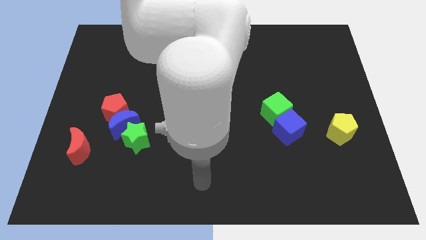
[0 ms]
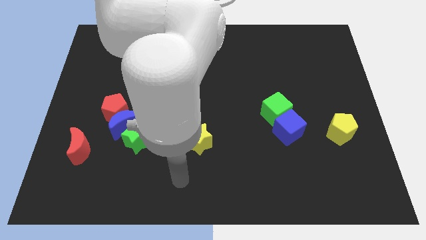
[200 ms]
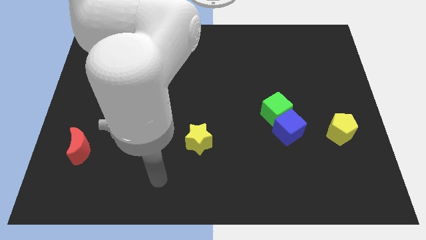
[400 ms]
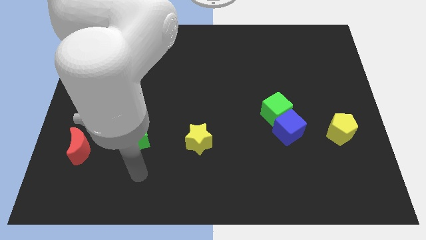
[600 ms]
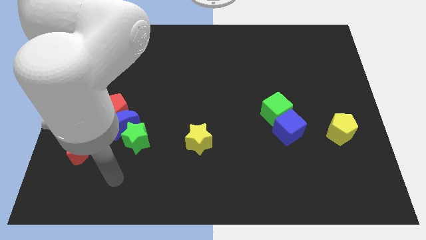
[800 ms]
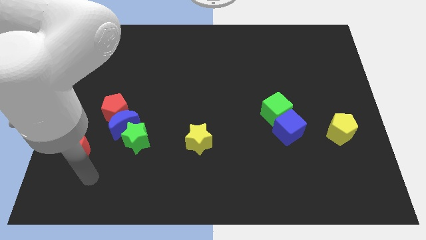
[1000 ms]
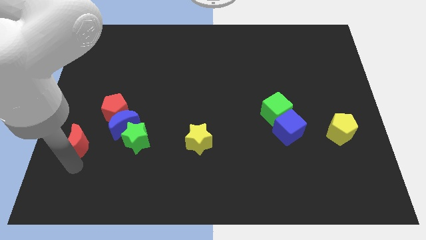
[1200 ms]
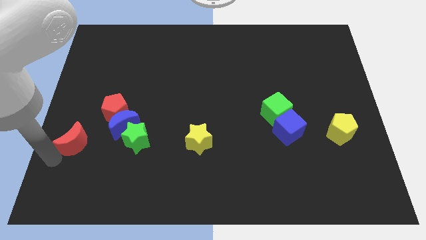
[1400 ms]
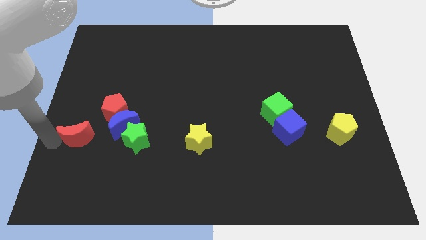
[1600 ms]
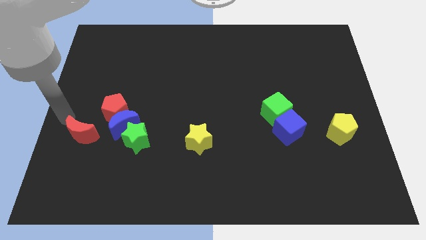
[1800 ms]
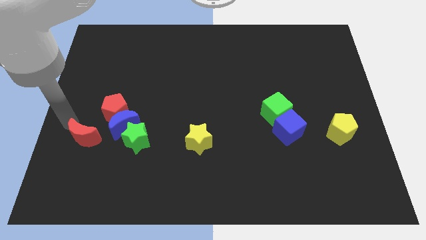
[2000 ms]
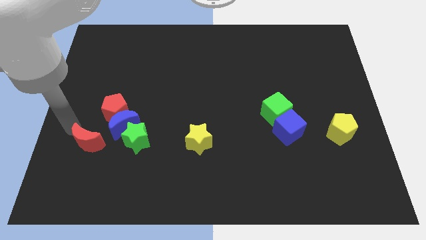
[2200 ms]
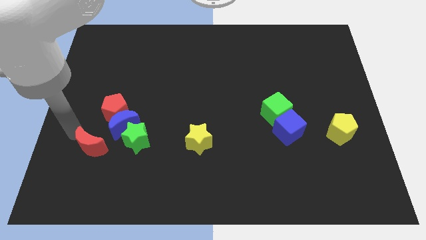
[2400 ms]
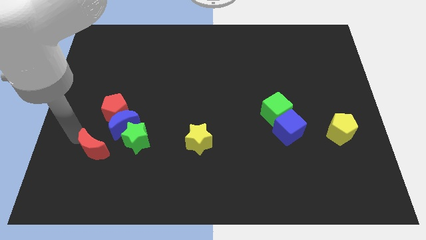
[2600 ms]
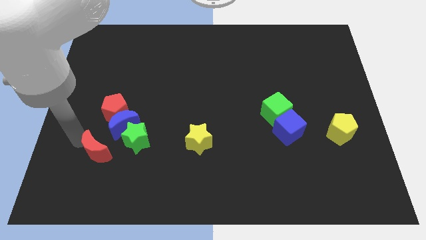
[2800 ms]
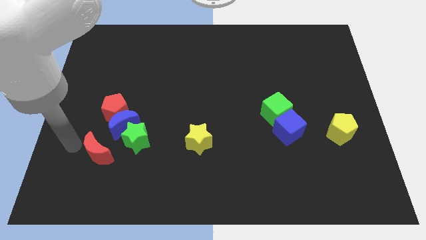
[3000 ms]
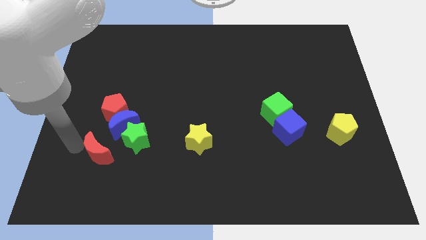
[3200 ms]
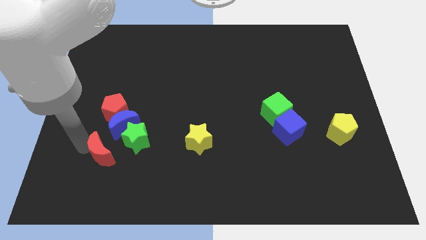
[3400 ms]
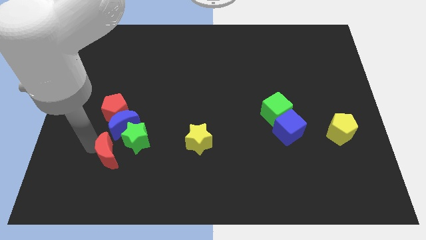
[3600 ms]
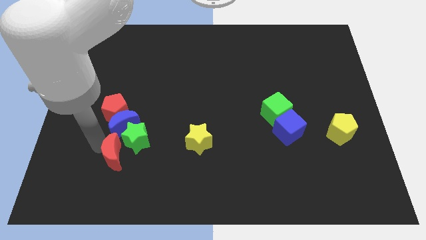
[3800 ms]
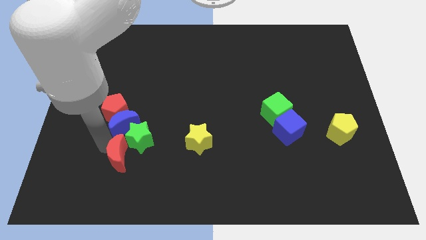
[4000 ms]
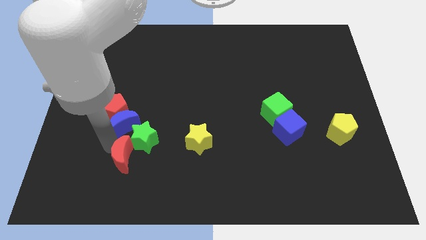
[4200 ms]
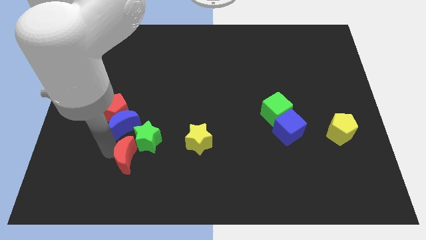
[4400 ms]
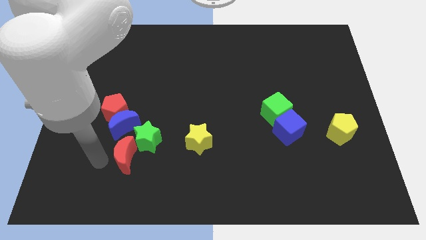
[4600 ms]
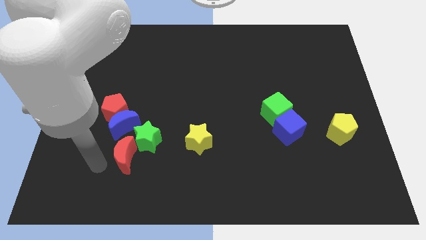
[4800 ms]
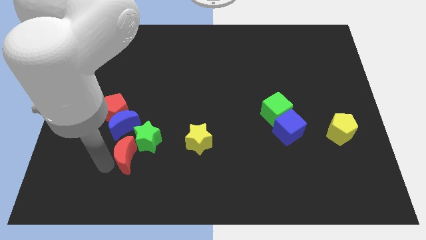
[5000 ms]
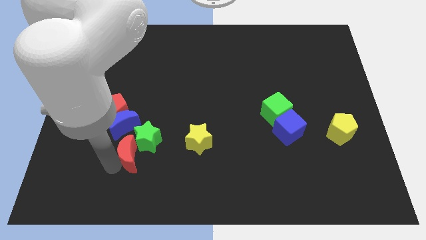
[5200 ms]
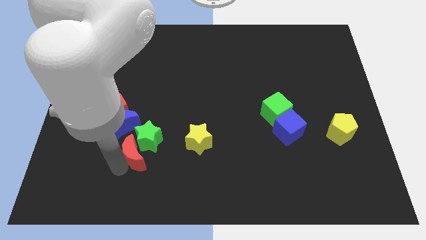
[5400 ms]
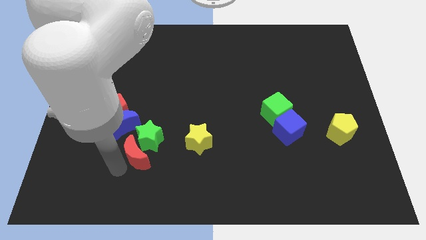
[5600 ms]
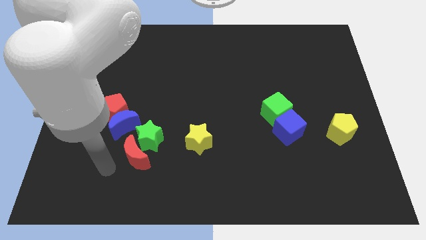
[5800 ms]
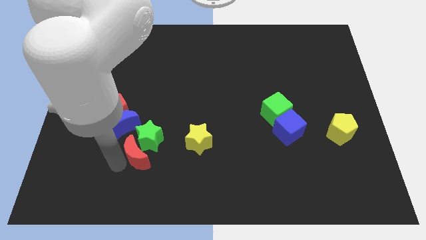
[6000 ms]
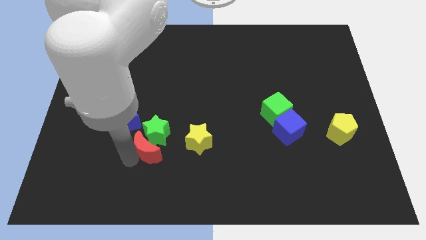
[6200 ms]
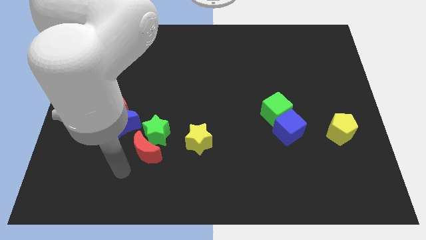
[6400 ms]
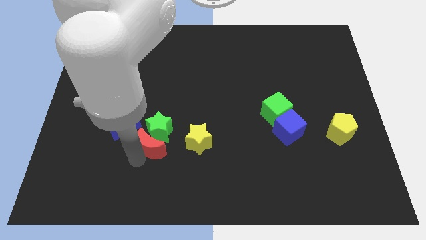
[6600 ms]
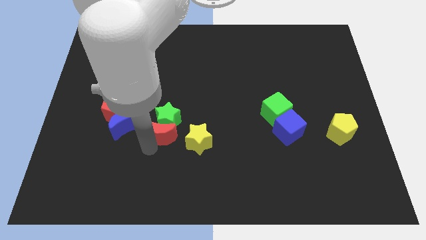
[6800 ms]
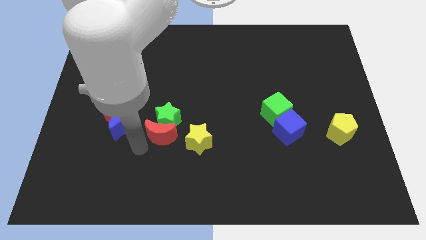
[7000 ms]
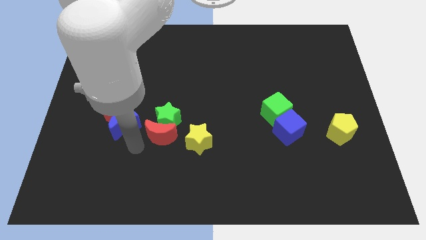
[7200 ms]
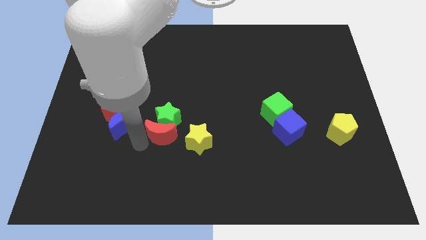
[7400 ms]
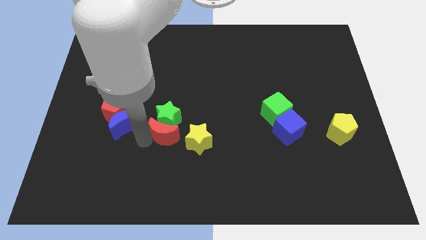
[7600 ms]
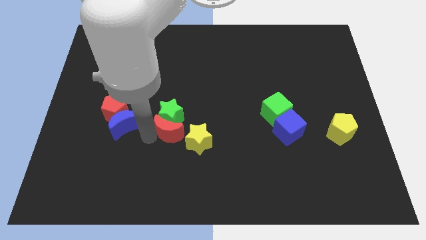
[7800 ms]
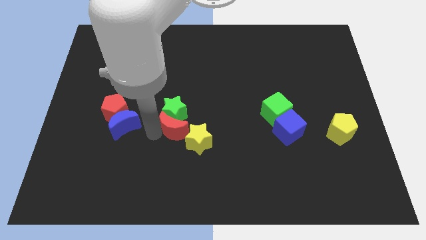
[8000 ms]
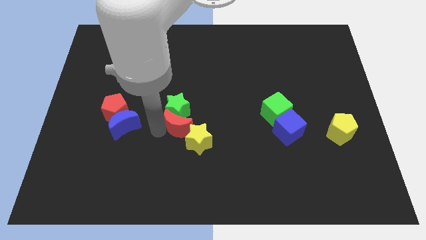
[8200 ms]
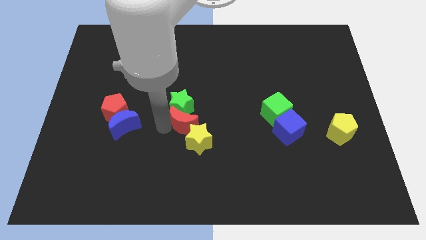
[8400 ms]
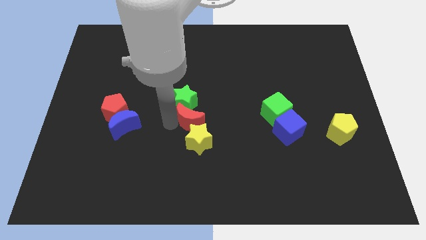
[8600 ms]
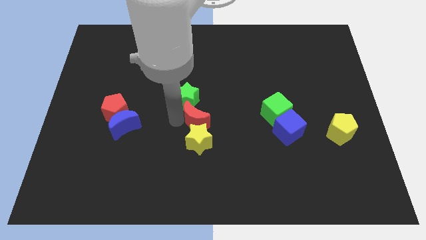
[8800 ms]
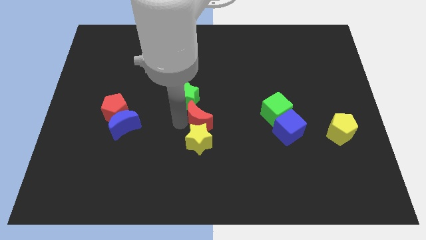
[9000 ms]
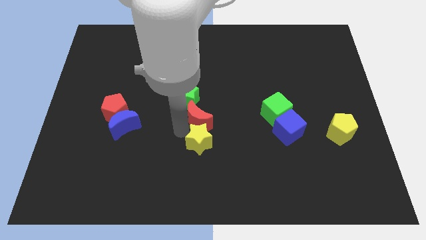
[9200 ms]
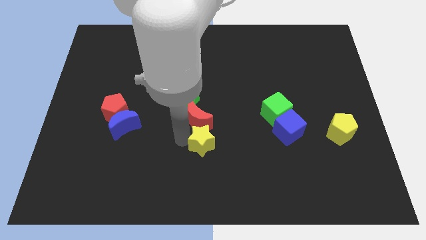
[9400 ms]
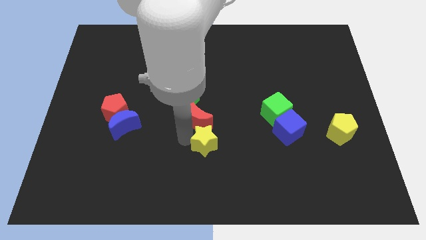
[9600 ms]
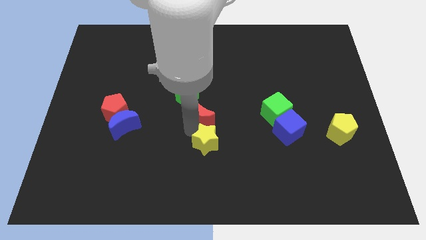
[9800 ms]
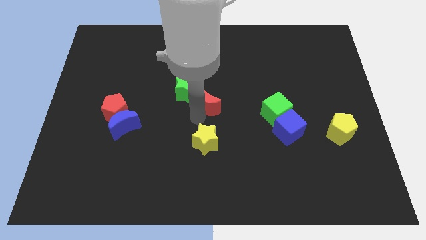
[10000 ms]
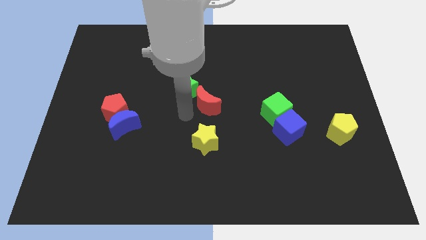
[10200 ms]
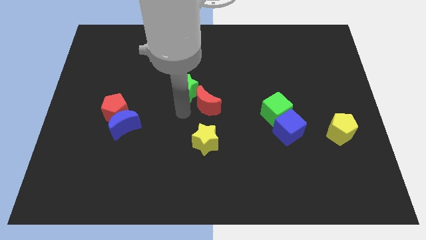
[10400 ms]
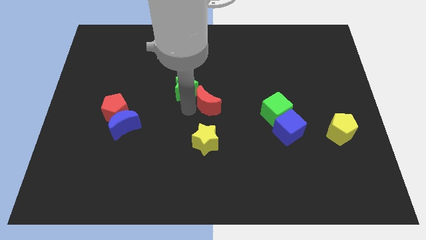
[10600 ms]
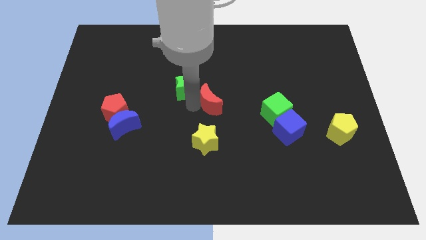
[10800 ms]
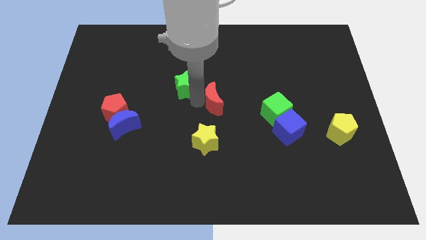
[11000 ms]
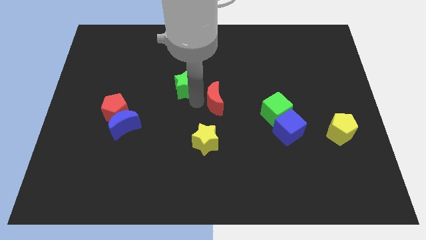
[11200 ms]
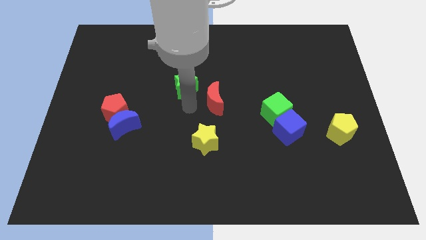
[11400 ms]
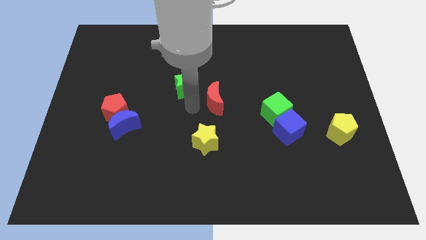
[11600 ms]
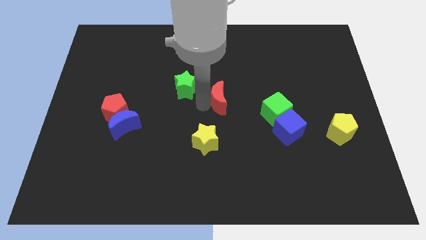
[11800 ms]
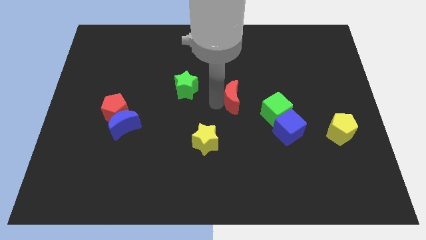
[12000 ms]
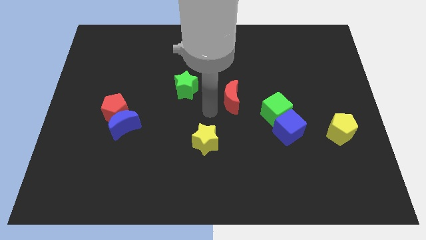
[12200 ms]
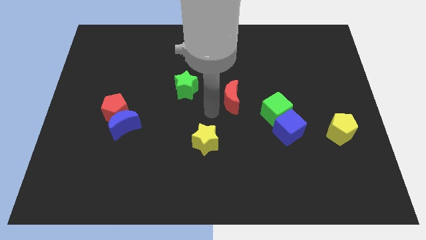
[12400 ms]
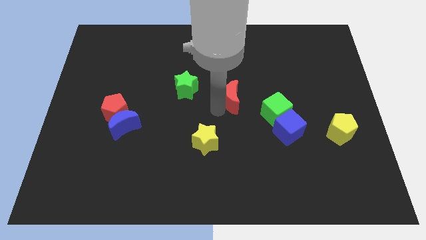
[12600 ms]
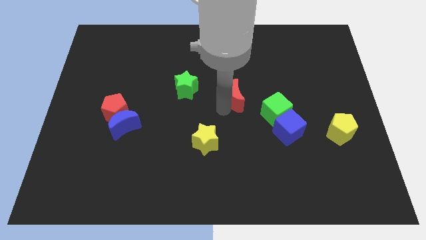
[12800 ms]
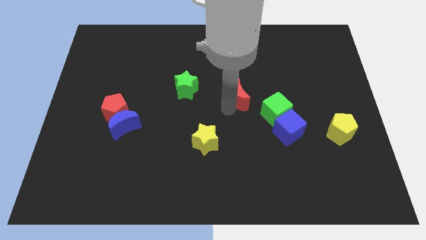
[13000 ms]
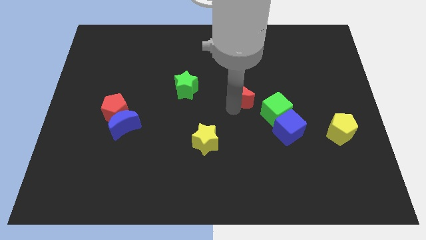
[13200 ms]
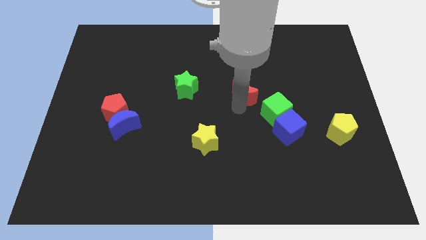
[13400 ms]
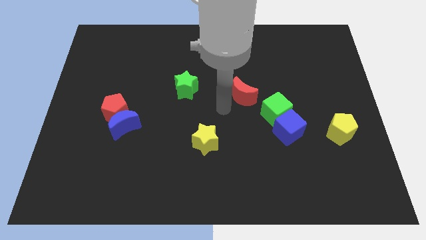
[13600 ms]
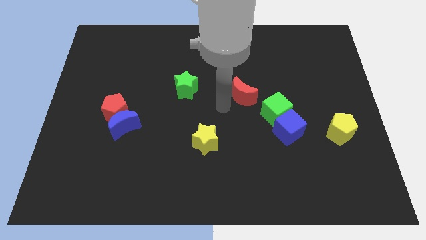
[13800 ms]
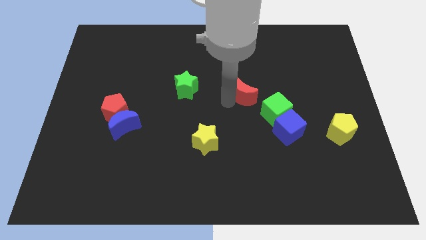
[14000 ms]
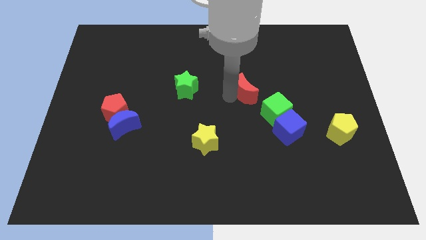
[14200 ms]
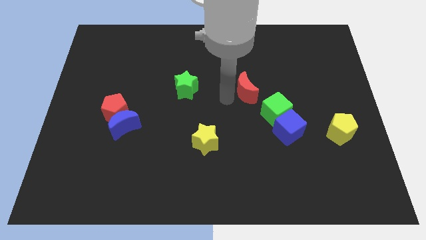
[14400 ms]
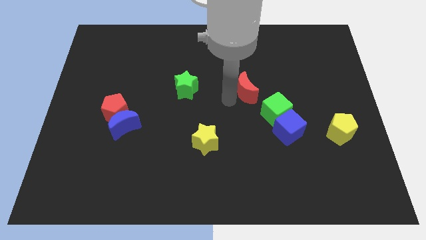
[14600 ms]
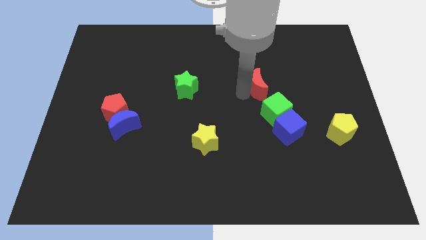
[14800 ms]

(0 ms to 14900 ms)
move the red moon above the green cube

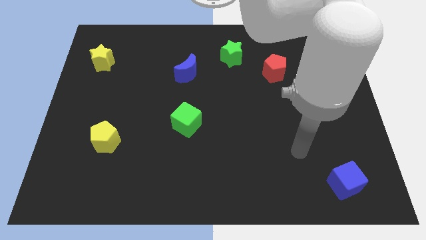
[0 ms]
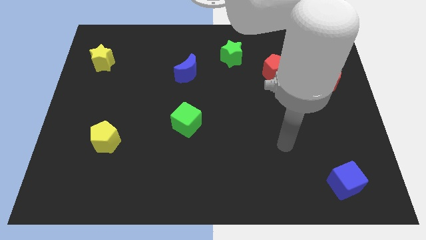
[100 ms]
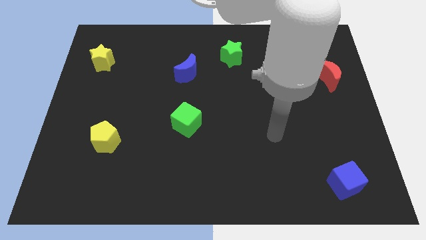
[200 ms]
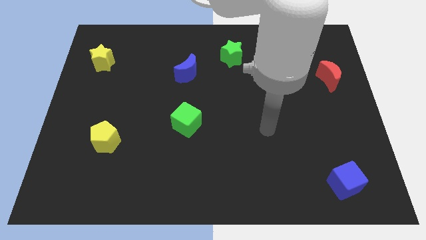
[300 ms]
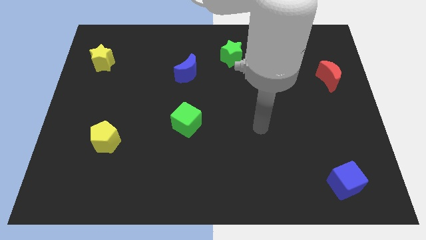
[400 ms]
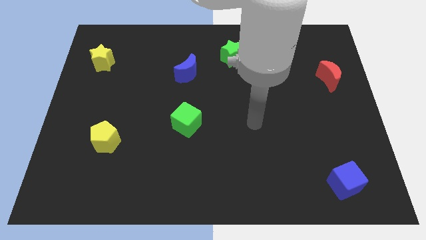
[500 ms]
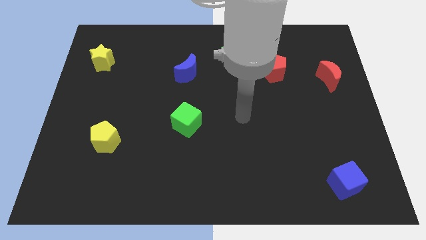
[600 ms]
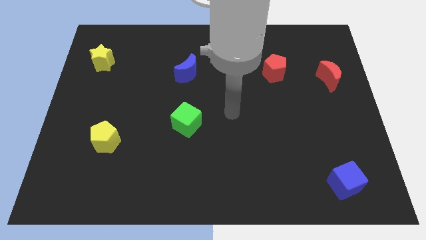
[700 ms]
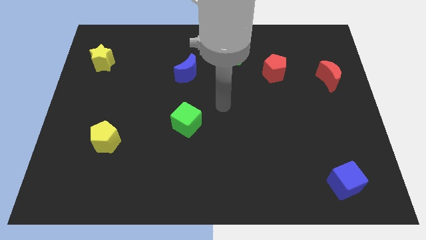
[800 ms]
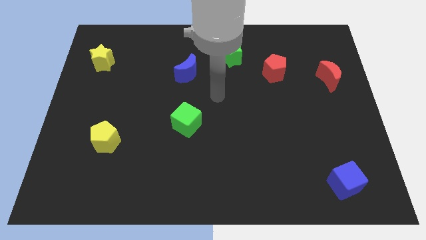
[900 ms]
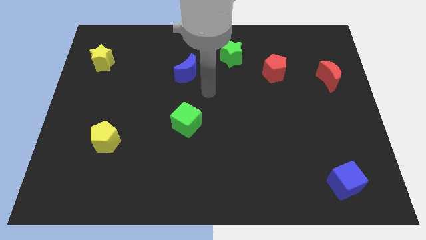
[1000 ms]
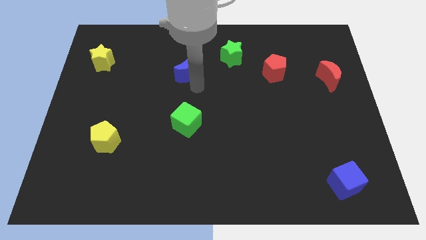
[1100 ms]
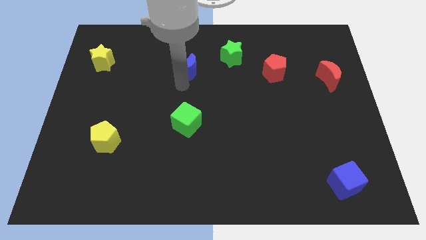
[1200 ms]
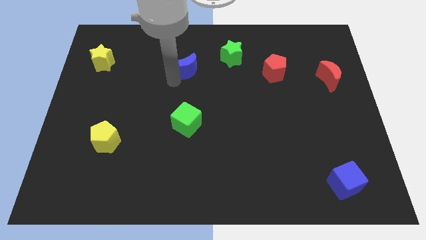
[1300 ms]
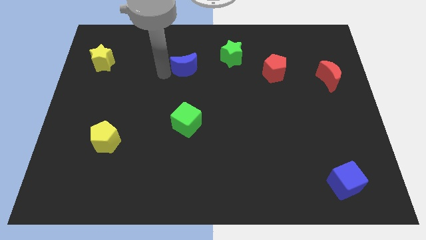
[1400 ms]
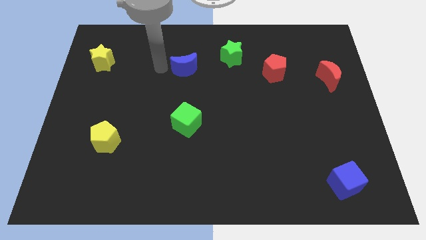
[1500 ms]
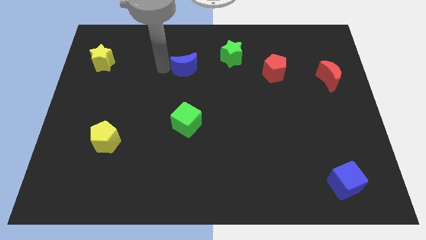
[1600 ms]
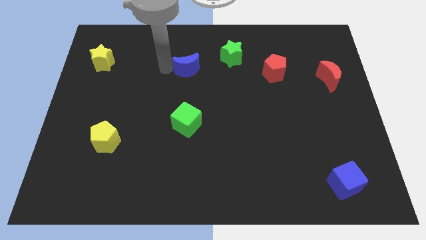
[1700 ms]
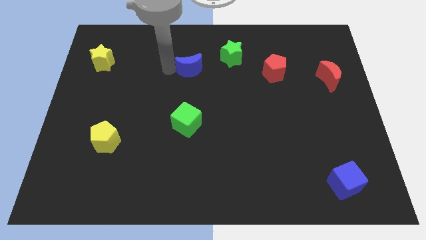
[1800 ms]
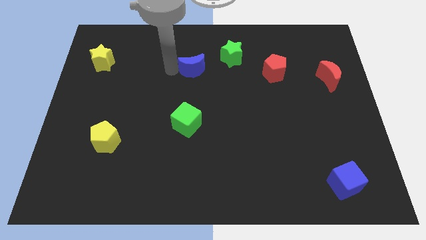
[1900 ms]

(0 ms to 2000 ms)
move the blue moon to the bottom left side of the green star
